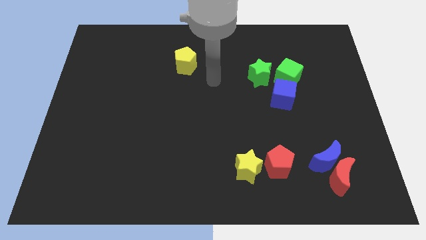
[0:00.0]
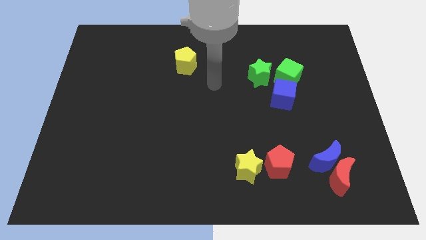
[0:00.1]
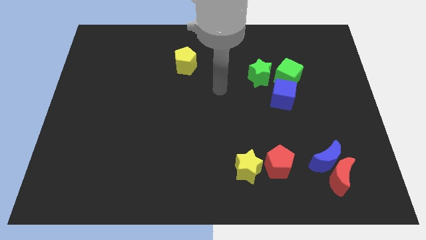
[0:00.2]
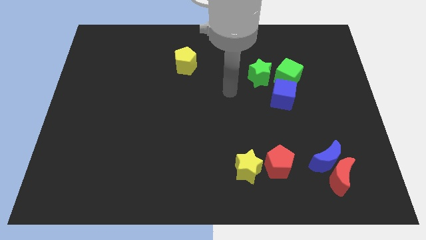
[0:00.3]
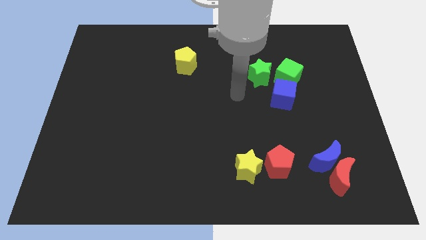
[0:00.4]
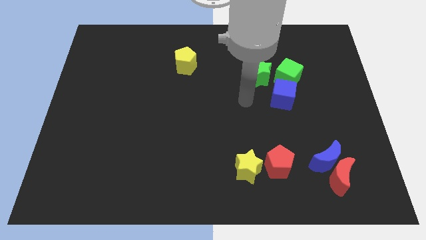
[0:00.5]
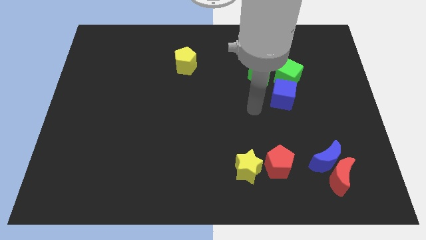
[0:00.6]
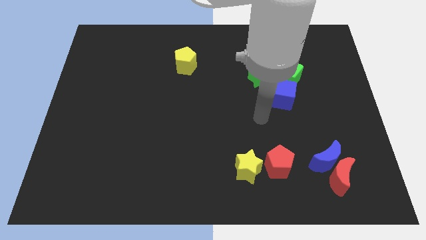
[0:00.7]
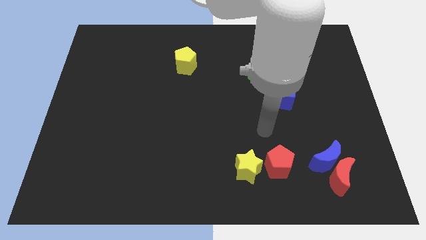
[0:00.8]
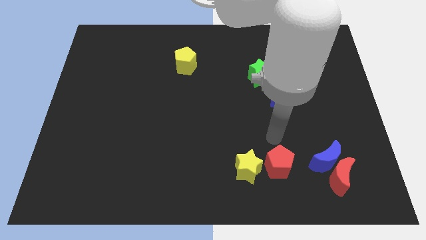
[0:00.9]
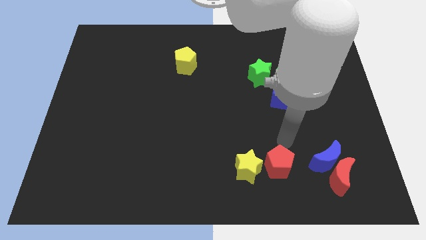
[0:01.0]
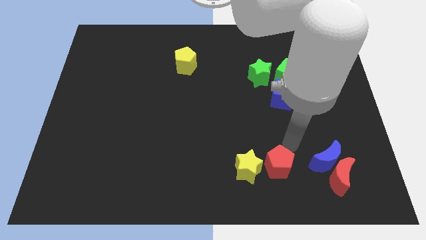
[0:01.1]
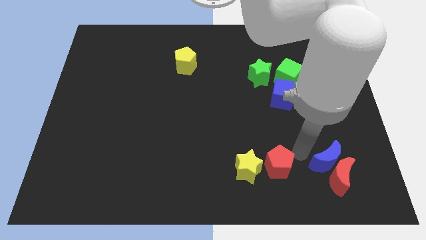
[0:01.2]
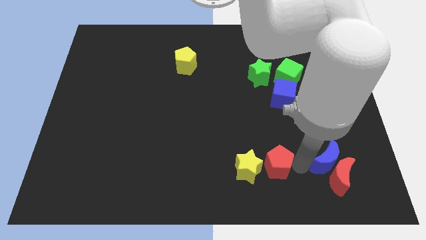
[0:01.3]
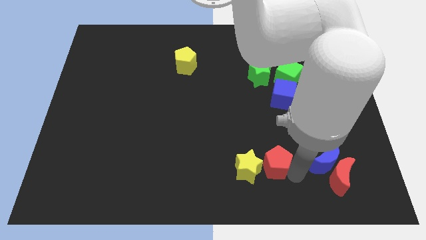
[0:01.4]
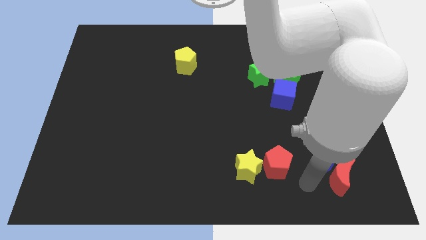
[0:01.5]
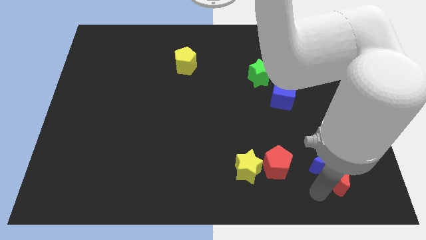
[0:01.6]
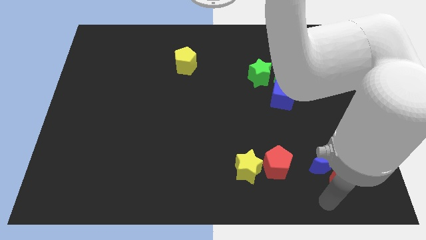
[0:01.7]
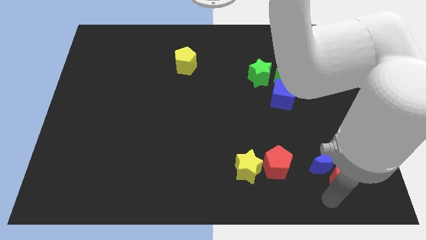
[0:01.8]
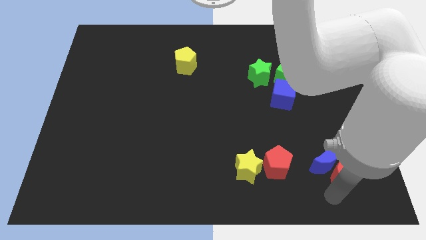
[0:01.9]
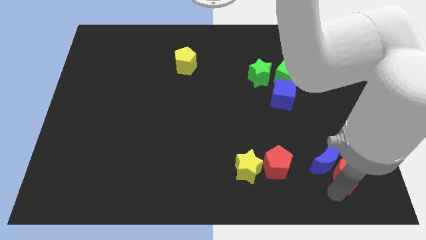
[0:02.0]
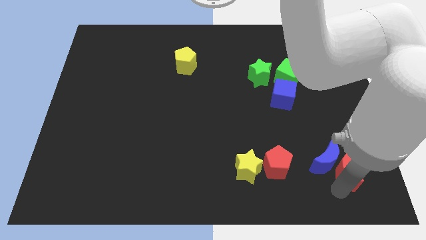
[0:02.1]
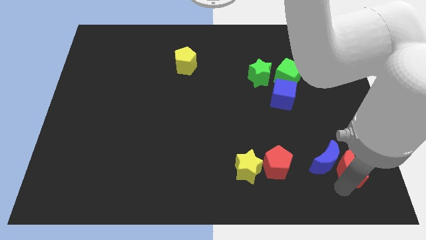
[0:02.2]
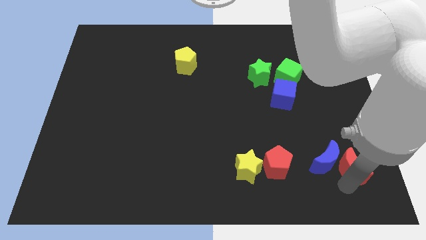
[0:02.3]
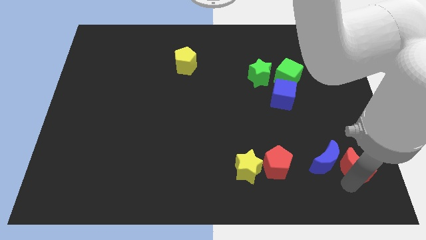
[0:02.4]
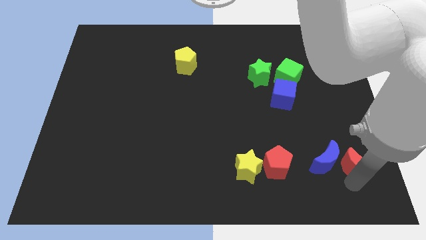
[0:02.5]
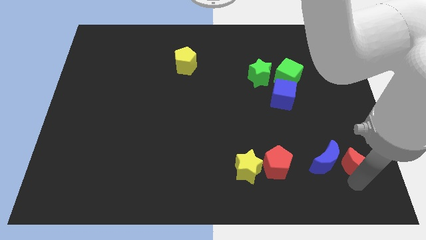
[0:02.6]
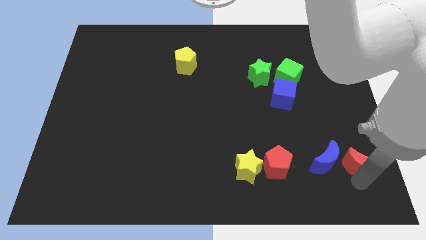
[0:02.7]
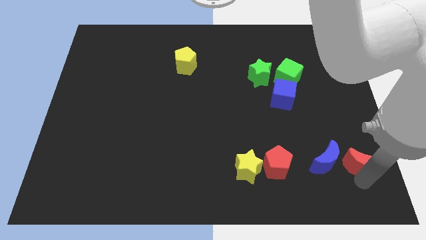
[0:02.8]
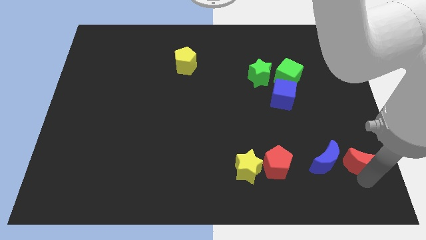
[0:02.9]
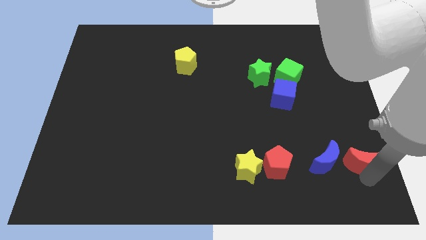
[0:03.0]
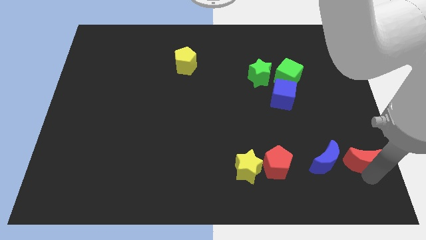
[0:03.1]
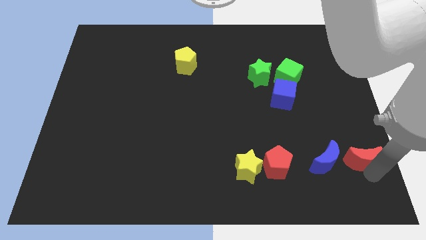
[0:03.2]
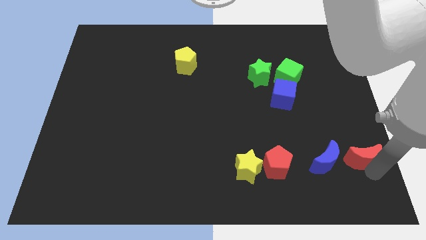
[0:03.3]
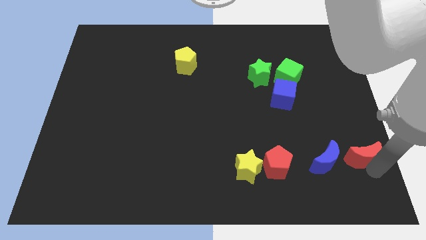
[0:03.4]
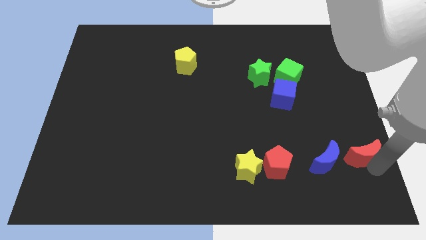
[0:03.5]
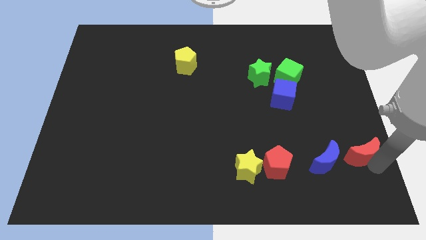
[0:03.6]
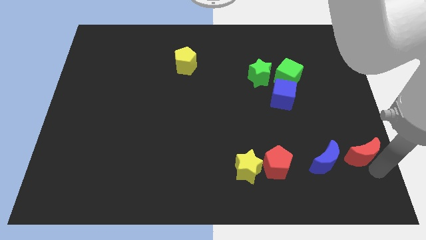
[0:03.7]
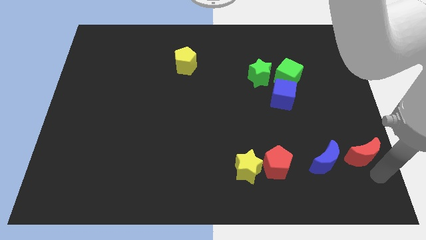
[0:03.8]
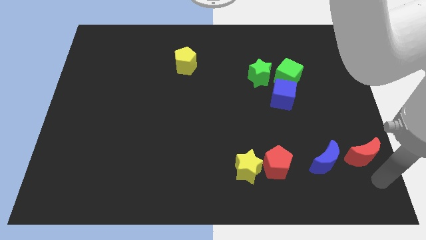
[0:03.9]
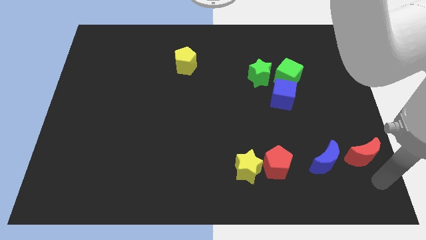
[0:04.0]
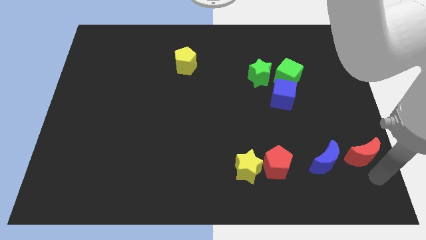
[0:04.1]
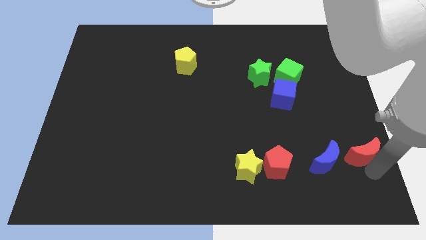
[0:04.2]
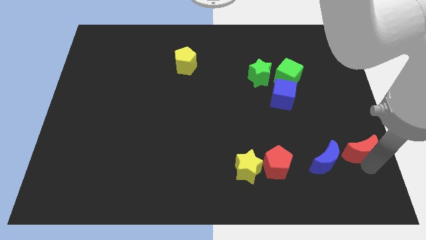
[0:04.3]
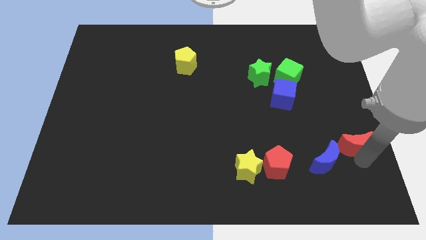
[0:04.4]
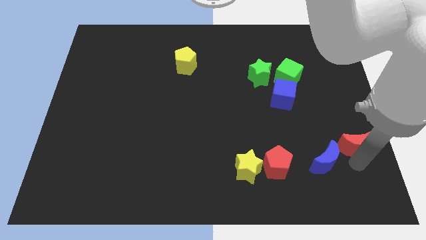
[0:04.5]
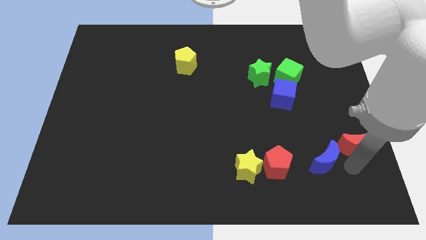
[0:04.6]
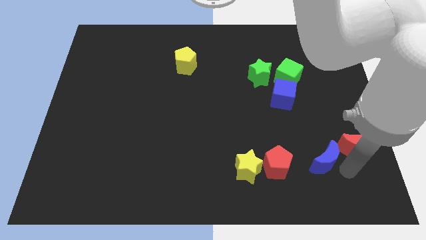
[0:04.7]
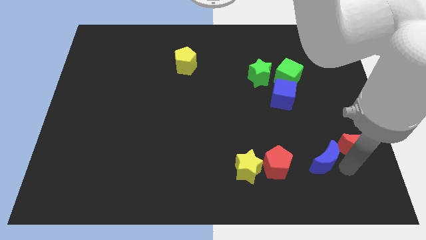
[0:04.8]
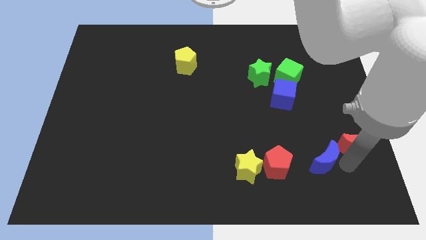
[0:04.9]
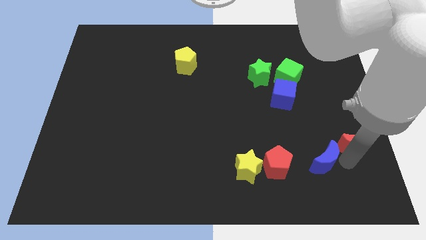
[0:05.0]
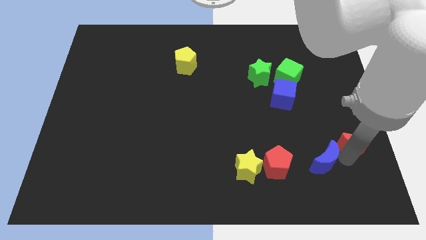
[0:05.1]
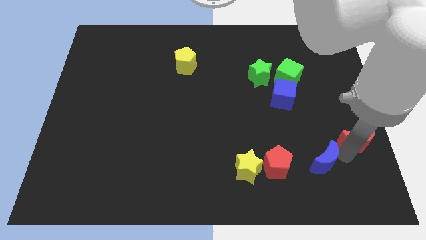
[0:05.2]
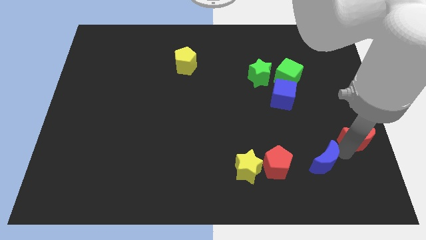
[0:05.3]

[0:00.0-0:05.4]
push the red moon to the right side

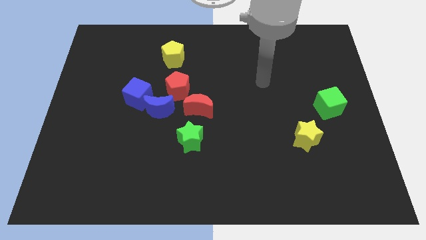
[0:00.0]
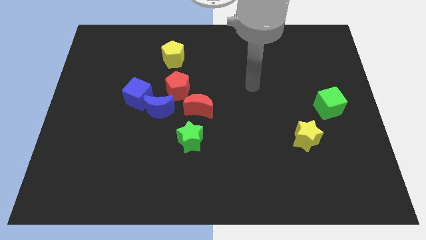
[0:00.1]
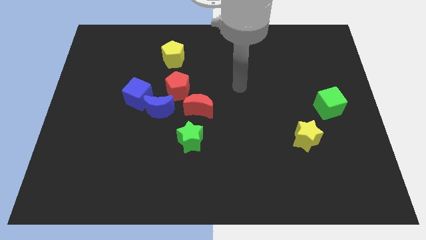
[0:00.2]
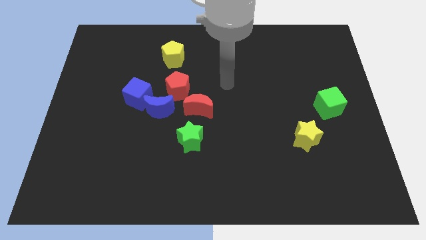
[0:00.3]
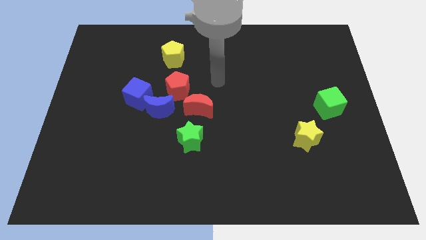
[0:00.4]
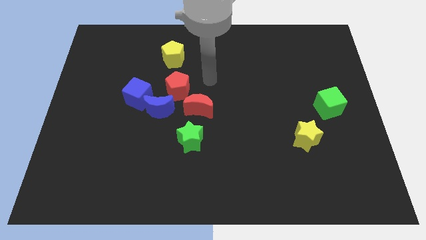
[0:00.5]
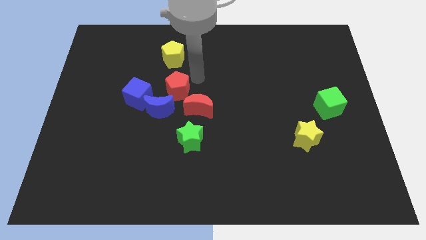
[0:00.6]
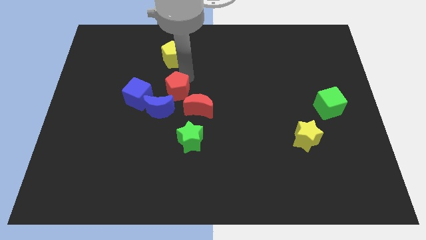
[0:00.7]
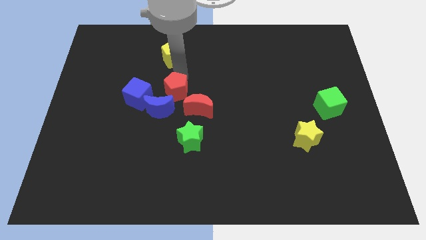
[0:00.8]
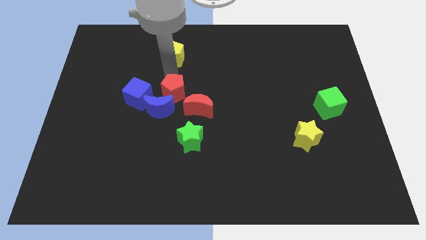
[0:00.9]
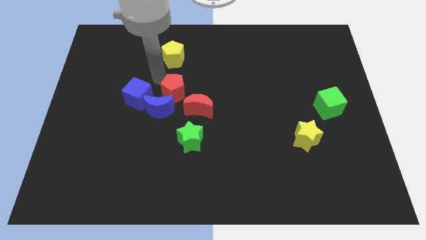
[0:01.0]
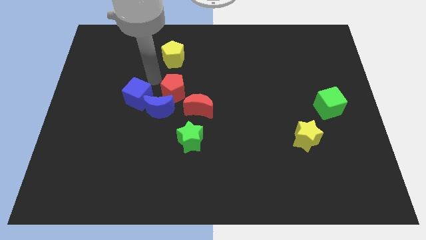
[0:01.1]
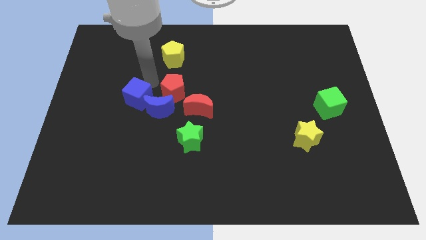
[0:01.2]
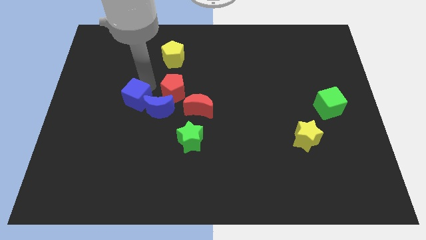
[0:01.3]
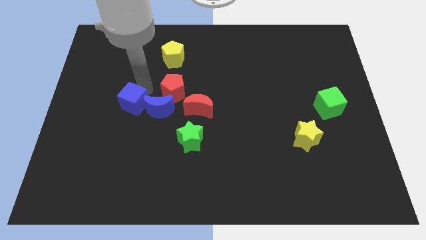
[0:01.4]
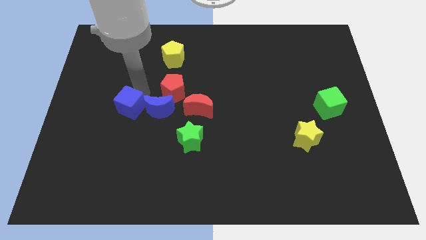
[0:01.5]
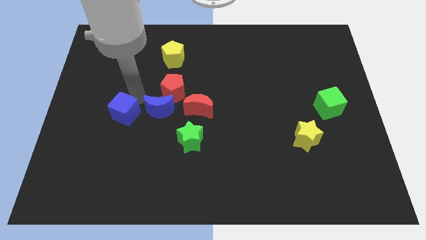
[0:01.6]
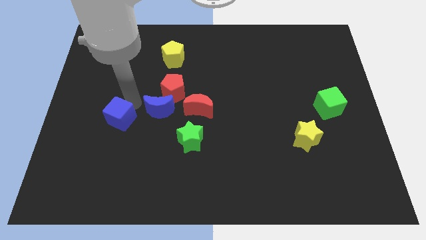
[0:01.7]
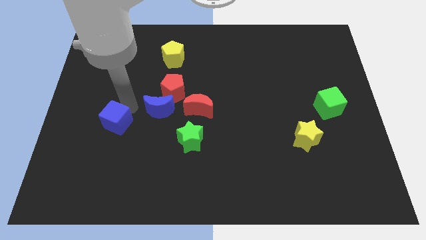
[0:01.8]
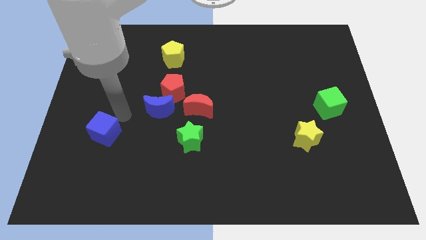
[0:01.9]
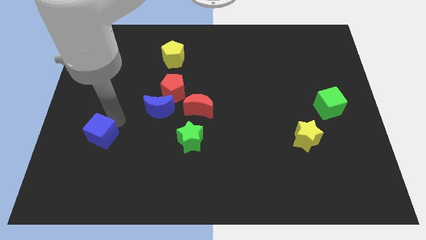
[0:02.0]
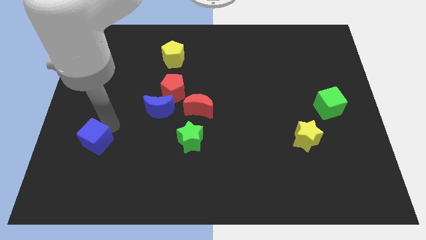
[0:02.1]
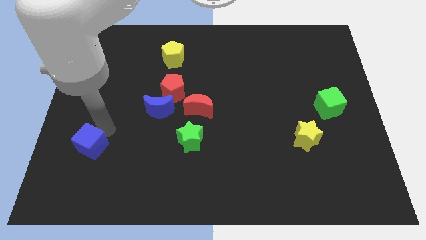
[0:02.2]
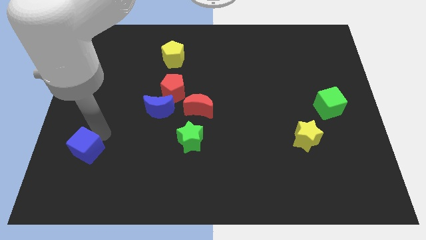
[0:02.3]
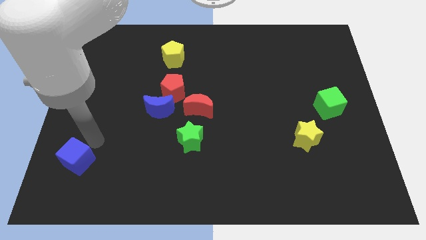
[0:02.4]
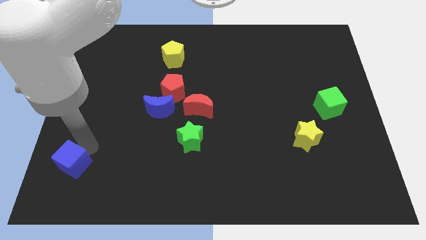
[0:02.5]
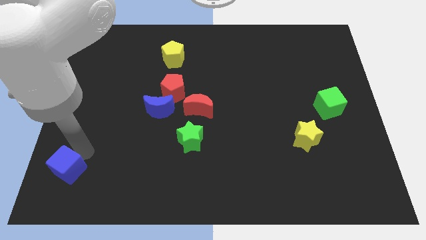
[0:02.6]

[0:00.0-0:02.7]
put the blue cube to the bottom left corner
